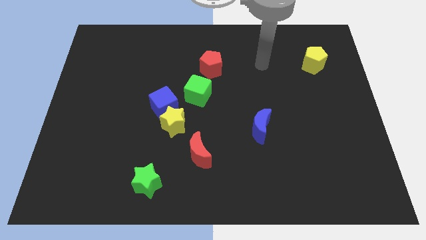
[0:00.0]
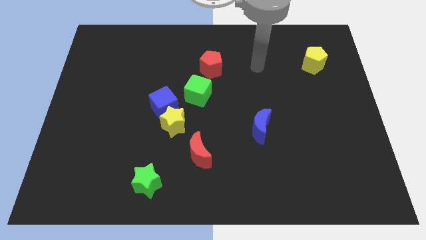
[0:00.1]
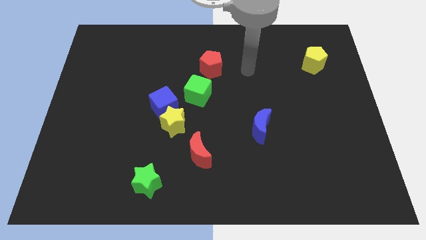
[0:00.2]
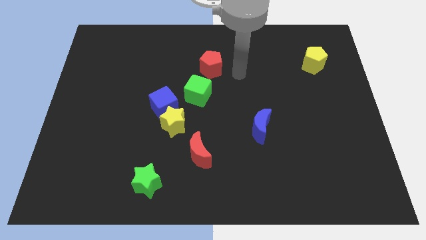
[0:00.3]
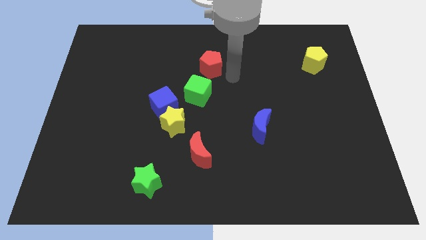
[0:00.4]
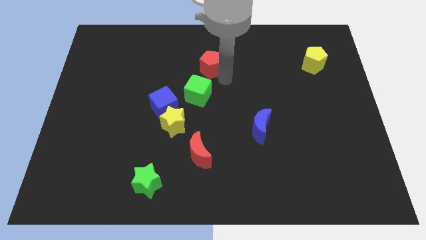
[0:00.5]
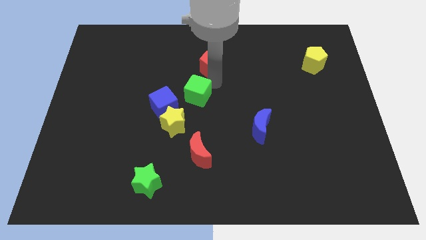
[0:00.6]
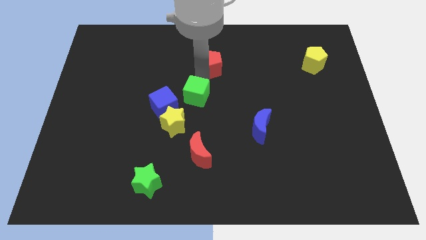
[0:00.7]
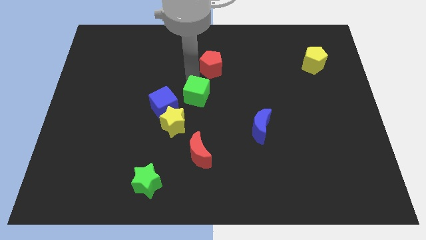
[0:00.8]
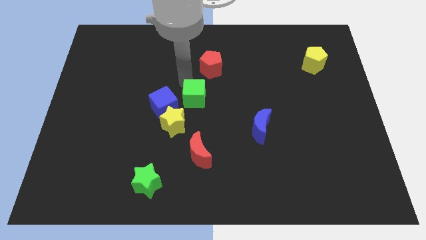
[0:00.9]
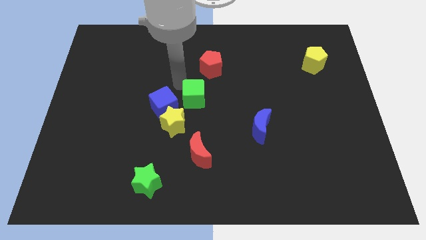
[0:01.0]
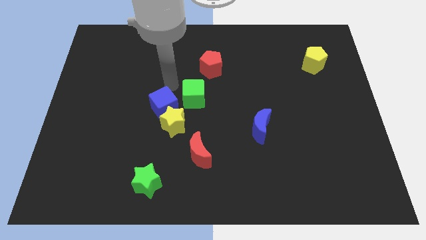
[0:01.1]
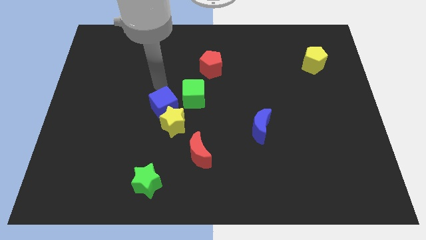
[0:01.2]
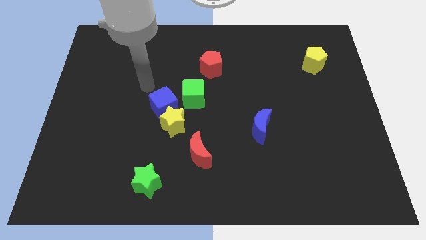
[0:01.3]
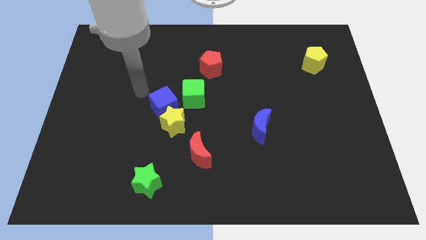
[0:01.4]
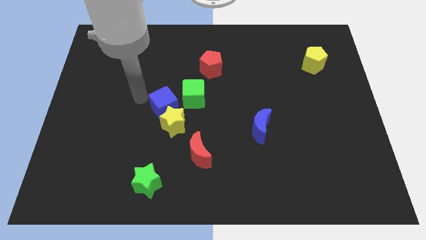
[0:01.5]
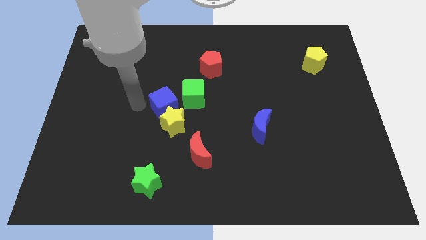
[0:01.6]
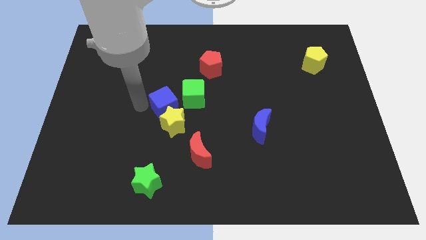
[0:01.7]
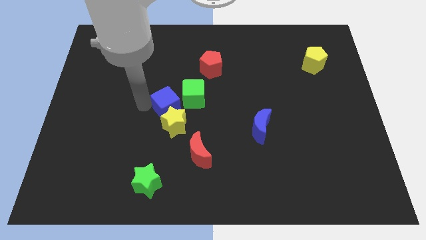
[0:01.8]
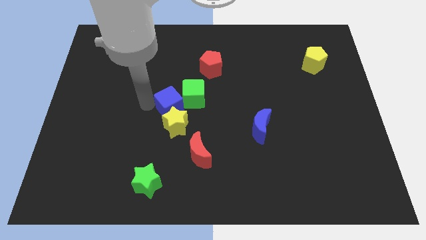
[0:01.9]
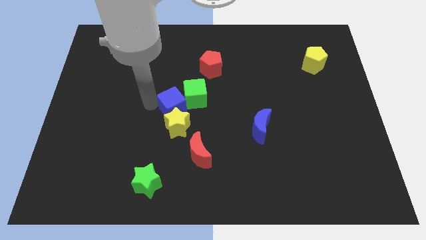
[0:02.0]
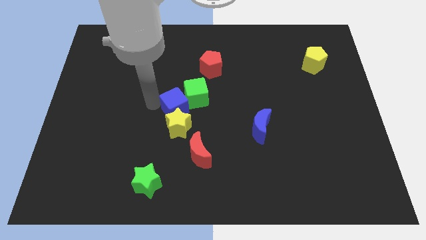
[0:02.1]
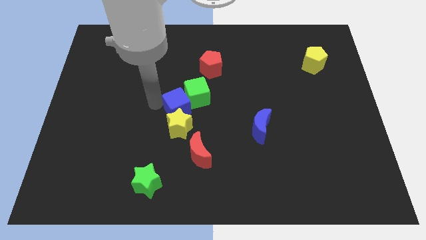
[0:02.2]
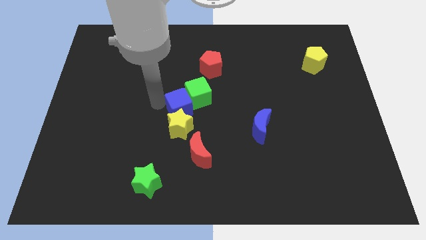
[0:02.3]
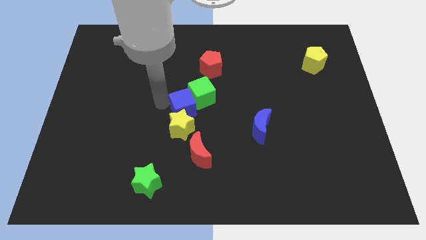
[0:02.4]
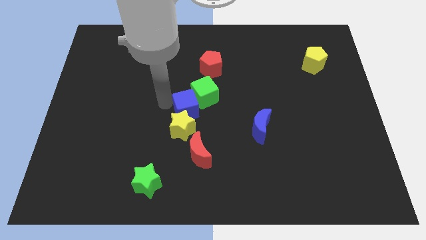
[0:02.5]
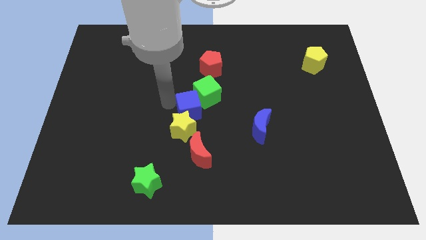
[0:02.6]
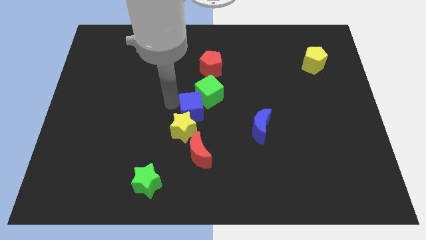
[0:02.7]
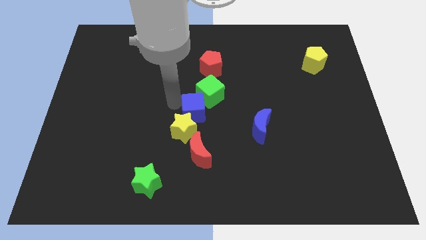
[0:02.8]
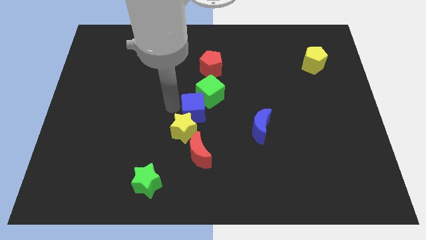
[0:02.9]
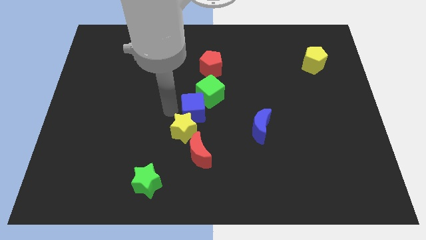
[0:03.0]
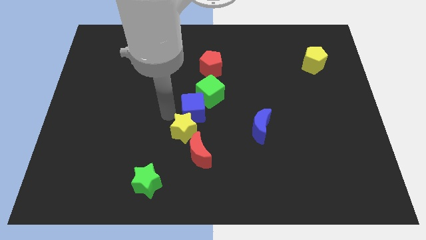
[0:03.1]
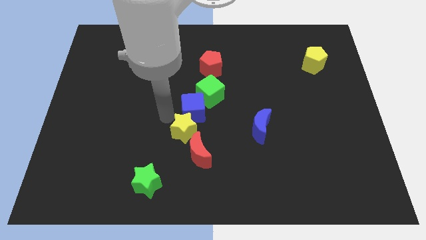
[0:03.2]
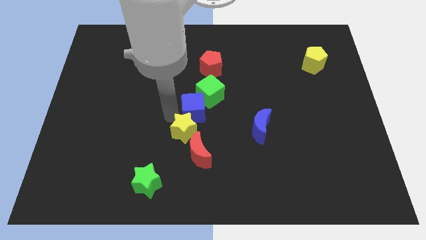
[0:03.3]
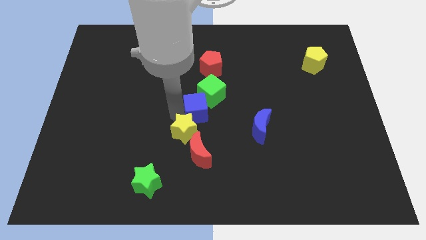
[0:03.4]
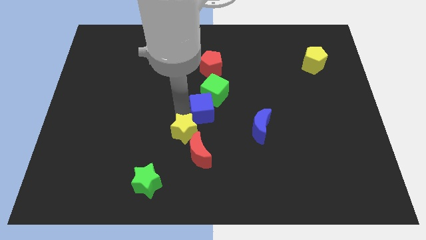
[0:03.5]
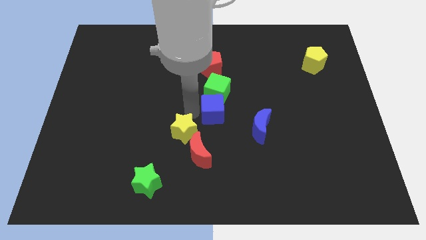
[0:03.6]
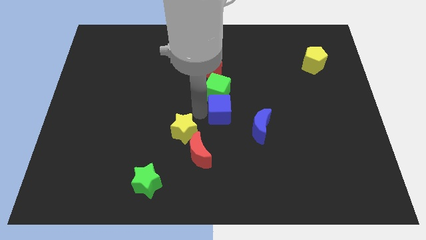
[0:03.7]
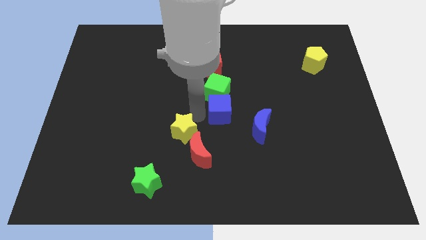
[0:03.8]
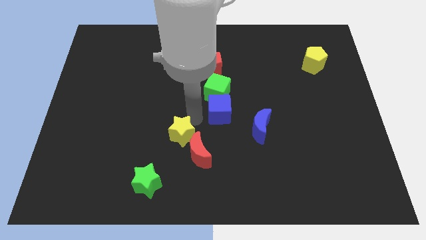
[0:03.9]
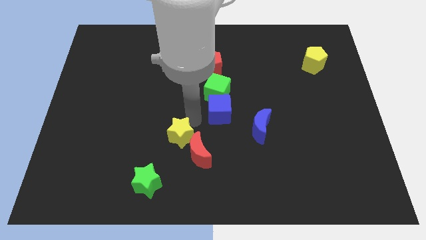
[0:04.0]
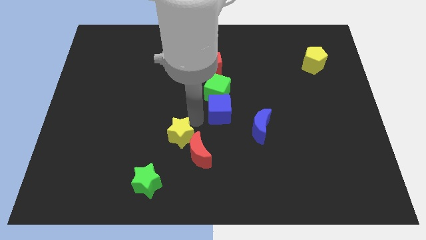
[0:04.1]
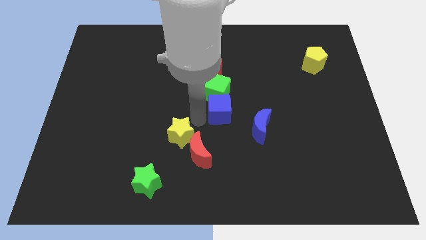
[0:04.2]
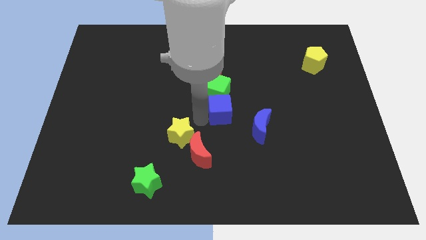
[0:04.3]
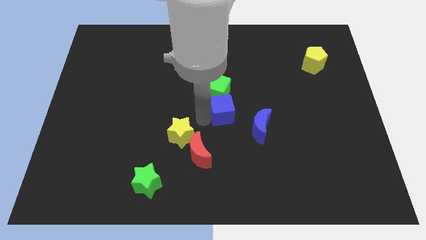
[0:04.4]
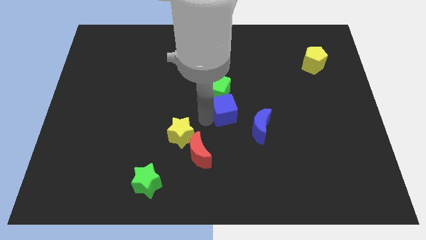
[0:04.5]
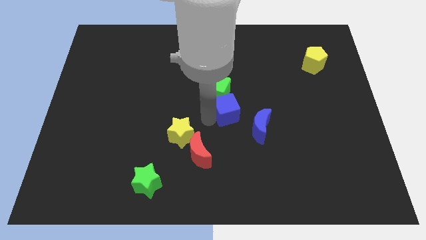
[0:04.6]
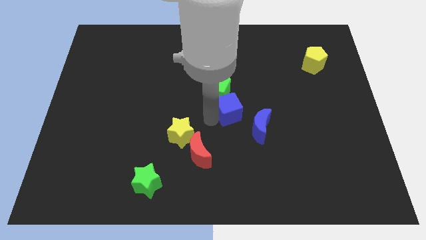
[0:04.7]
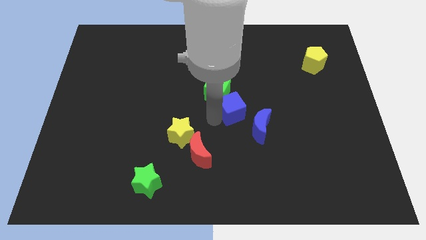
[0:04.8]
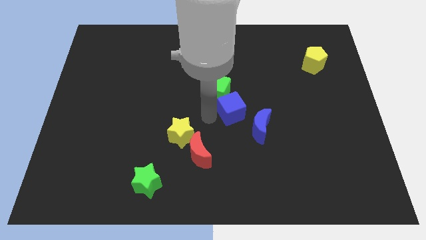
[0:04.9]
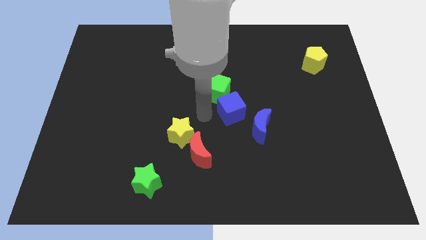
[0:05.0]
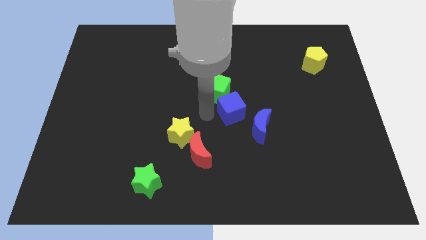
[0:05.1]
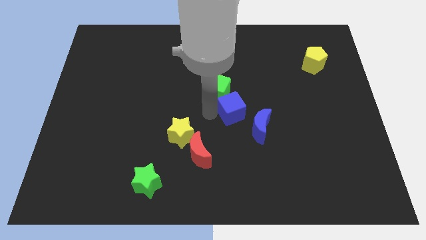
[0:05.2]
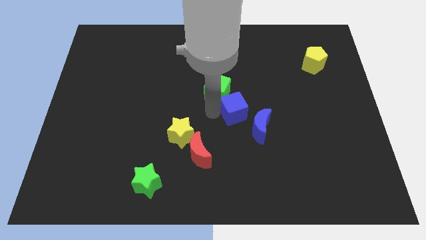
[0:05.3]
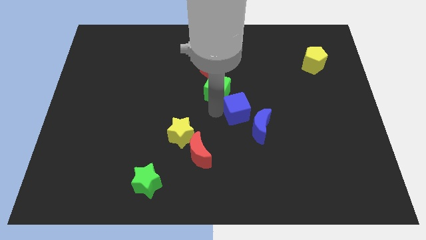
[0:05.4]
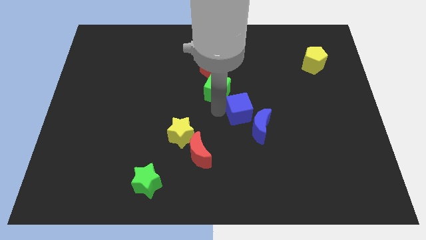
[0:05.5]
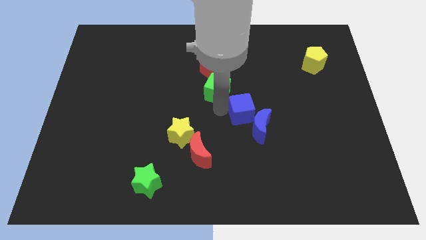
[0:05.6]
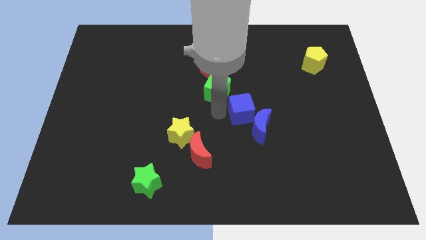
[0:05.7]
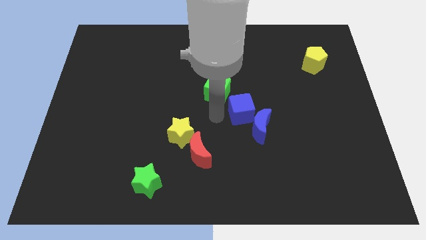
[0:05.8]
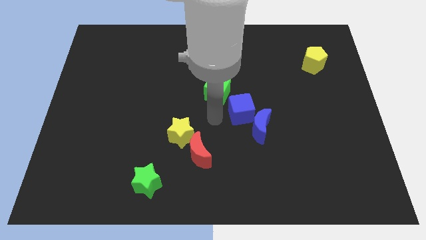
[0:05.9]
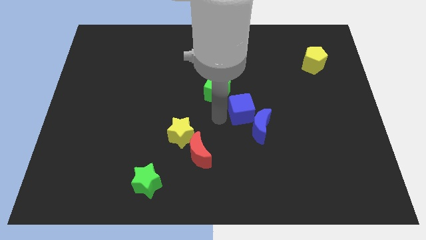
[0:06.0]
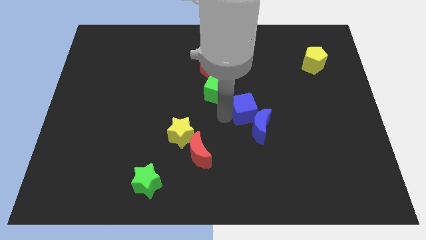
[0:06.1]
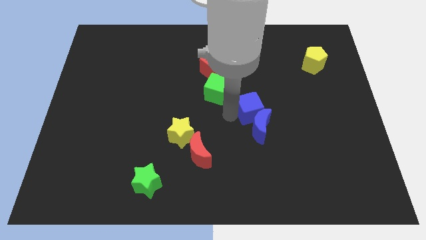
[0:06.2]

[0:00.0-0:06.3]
push the blue cube right

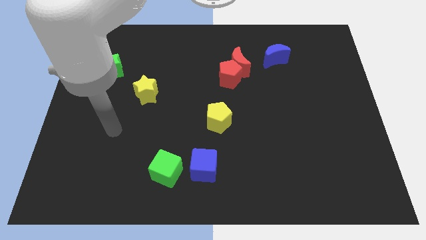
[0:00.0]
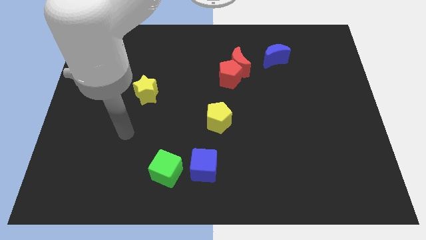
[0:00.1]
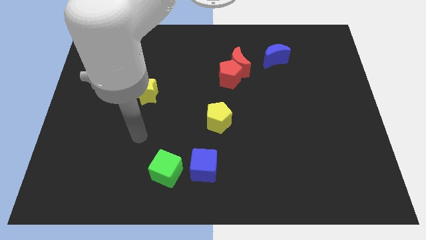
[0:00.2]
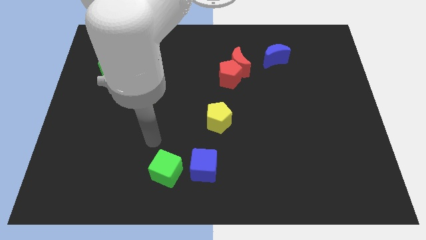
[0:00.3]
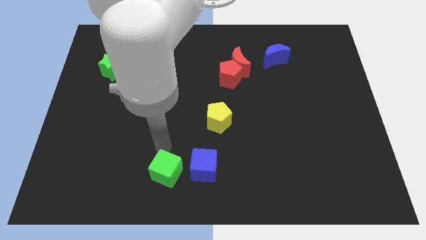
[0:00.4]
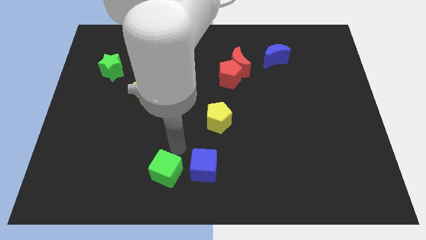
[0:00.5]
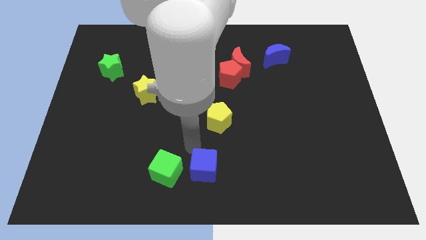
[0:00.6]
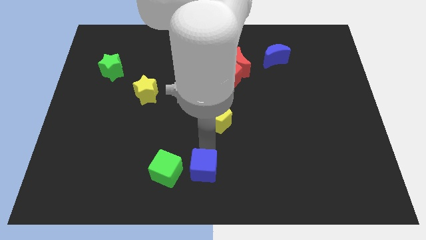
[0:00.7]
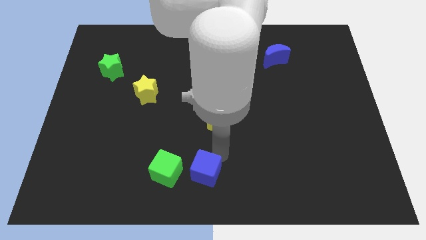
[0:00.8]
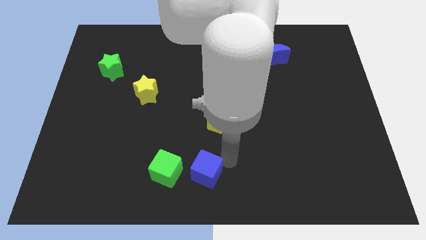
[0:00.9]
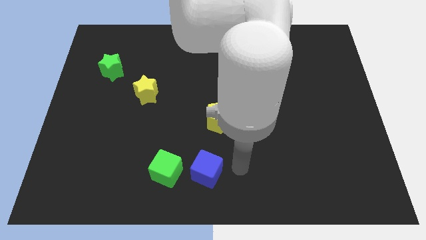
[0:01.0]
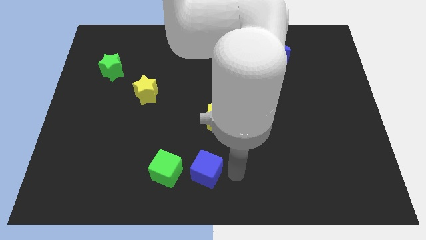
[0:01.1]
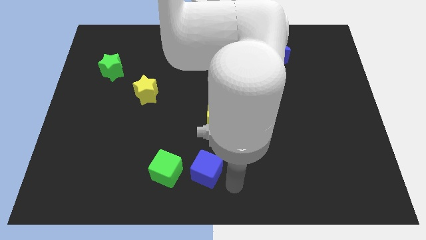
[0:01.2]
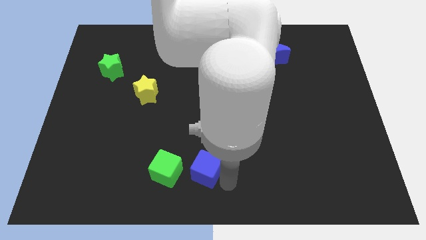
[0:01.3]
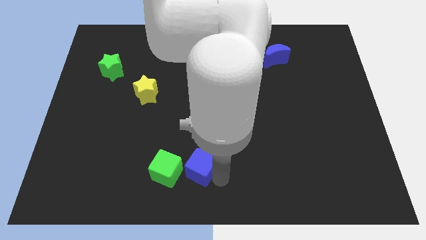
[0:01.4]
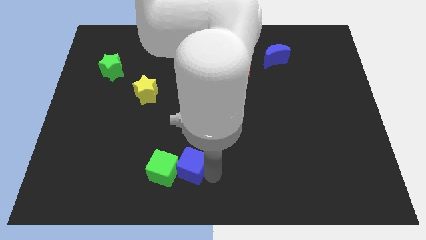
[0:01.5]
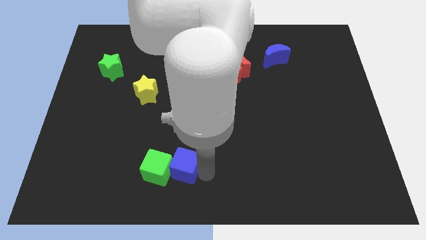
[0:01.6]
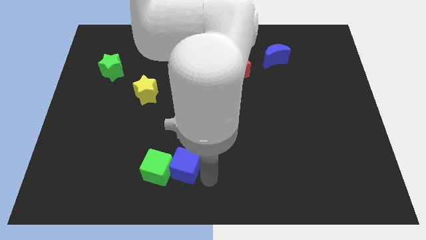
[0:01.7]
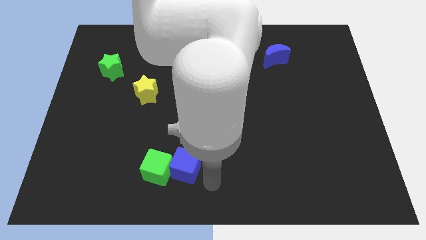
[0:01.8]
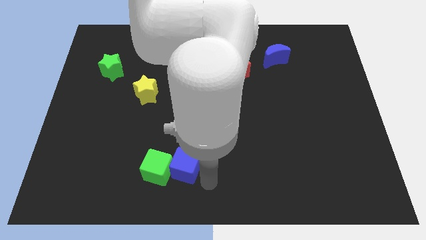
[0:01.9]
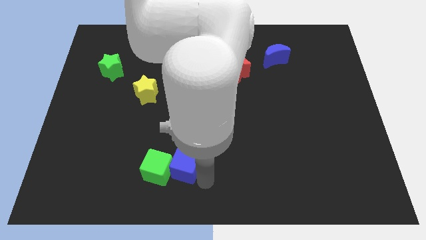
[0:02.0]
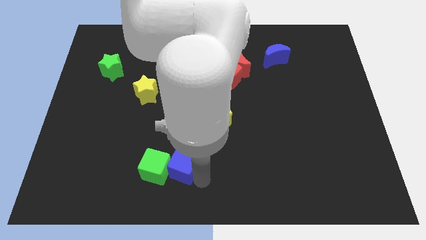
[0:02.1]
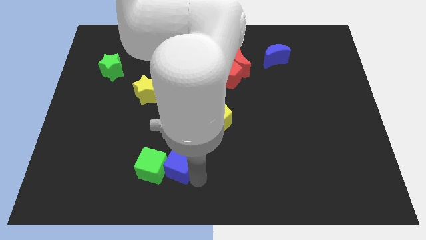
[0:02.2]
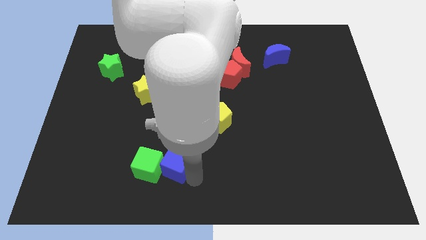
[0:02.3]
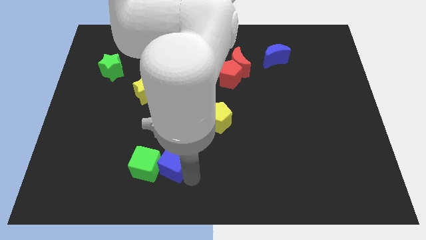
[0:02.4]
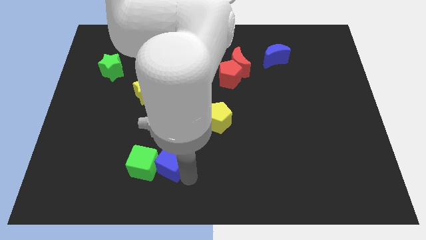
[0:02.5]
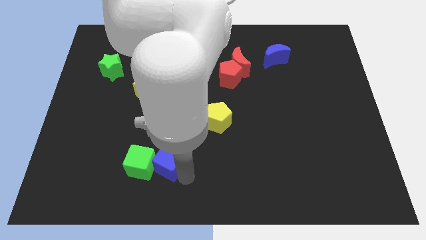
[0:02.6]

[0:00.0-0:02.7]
slide the blue cube somewhat left
